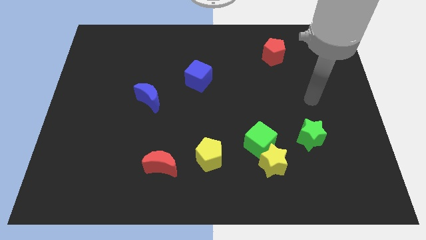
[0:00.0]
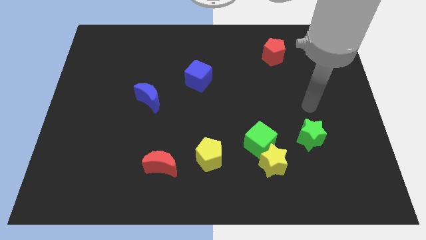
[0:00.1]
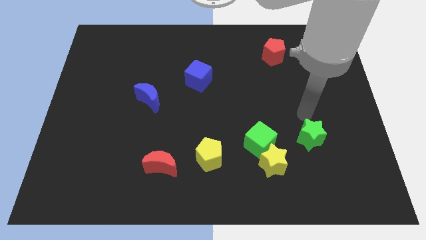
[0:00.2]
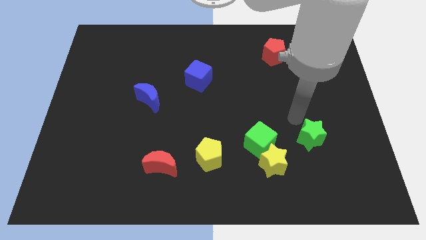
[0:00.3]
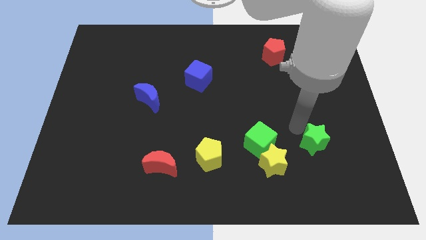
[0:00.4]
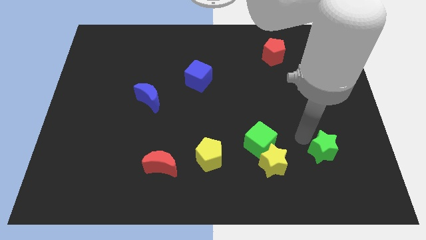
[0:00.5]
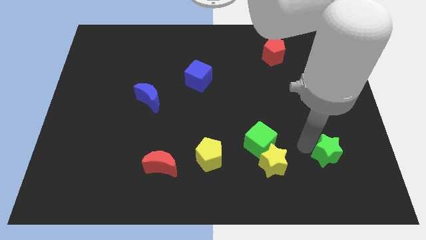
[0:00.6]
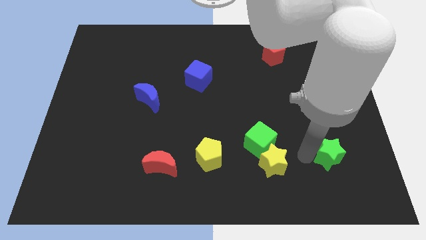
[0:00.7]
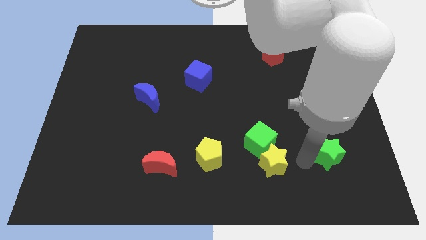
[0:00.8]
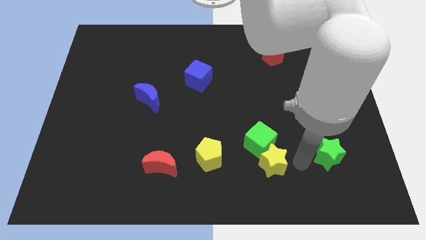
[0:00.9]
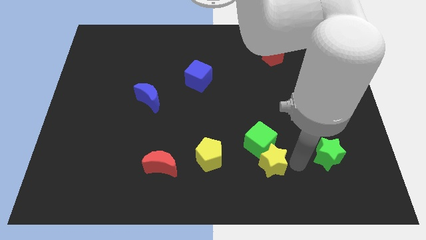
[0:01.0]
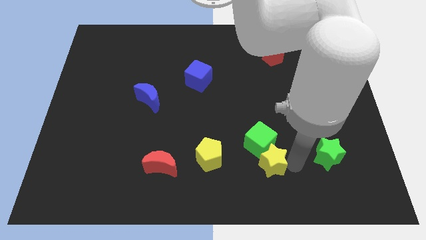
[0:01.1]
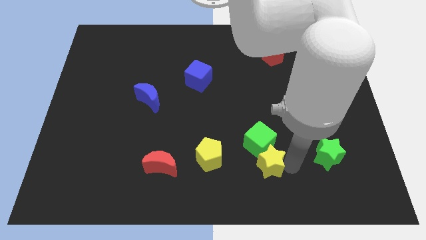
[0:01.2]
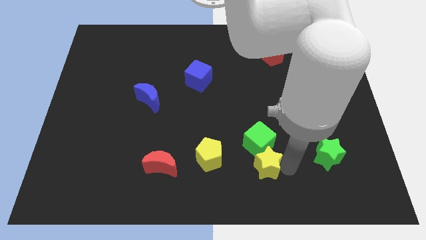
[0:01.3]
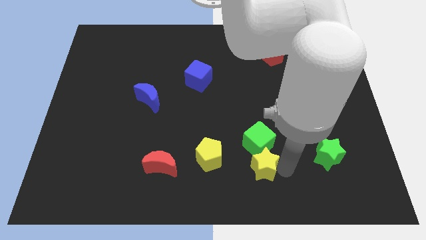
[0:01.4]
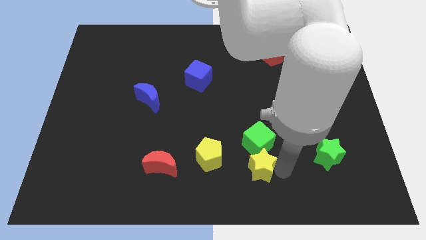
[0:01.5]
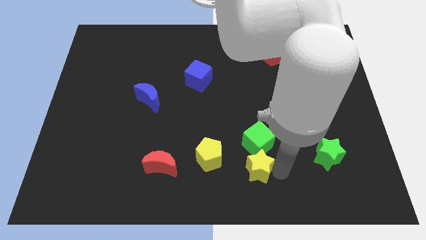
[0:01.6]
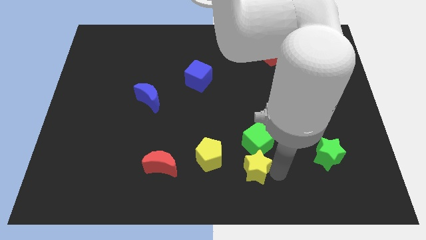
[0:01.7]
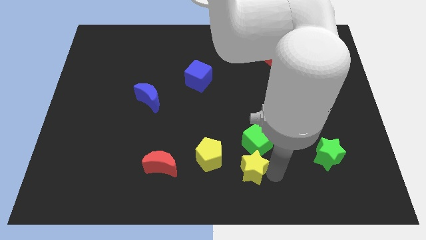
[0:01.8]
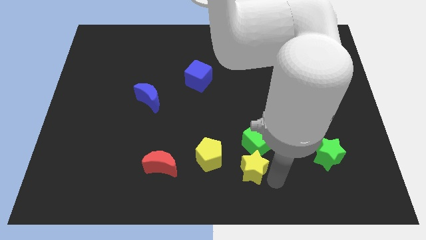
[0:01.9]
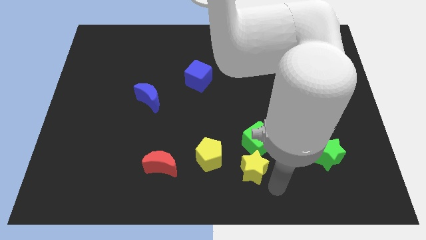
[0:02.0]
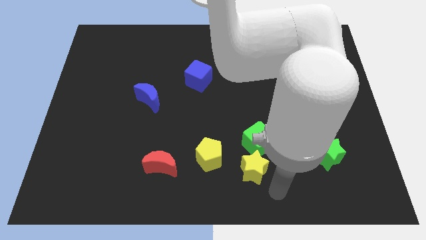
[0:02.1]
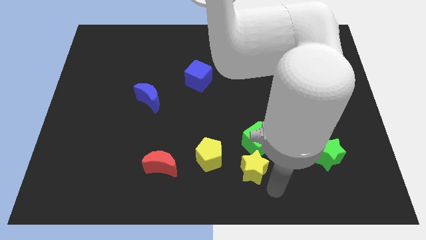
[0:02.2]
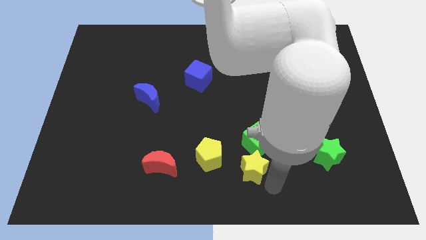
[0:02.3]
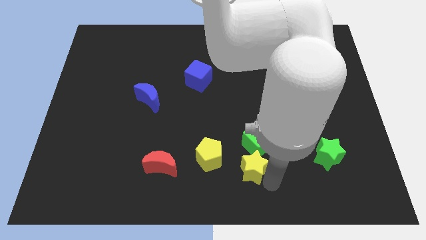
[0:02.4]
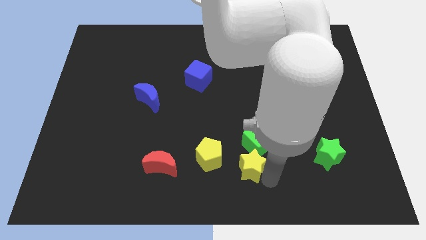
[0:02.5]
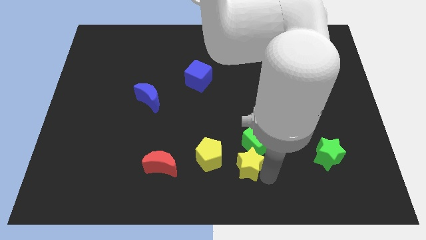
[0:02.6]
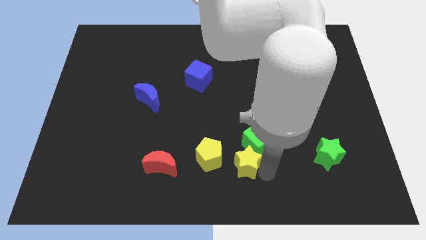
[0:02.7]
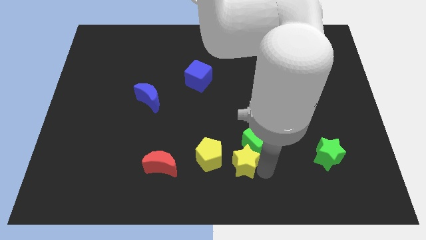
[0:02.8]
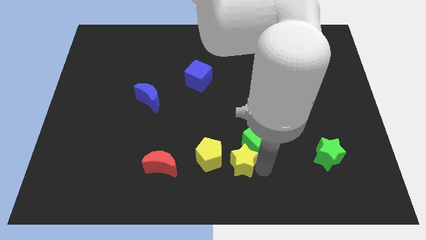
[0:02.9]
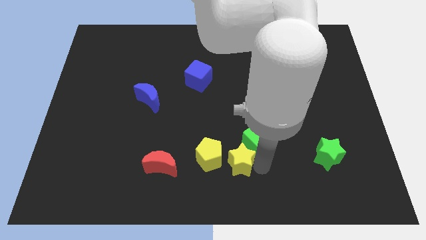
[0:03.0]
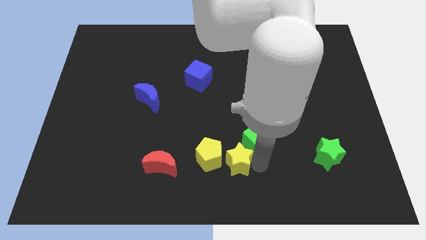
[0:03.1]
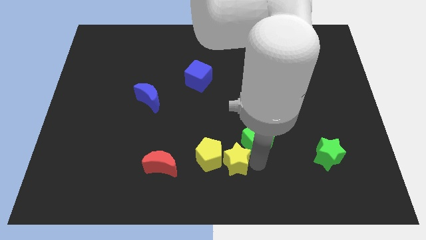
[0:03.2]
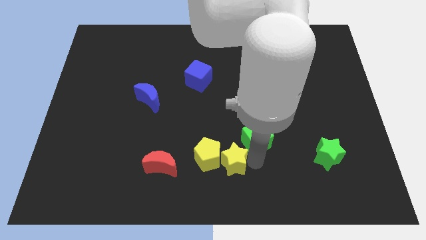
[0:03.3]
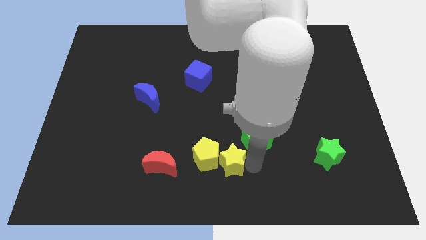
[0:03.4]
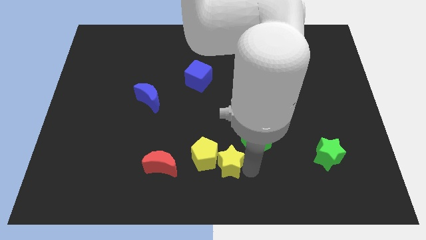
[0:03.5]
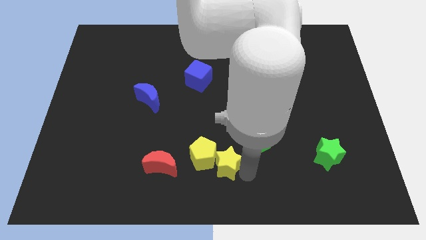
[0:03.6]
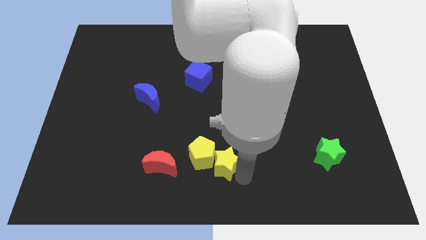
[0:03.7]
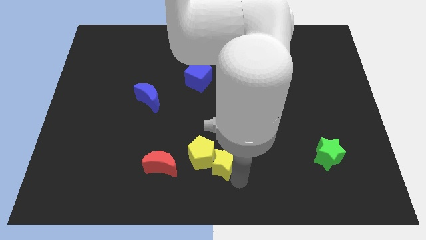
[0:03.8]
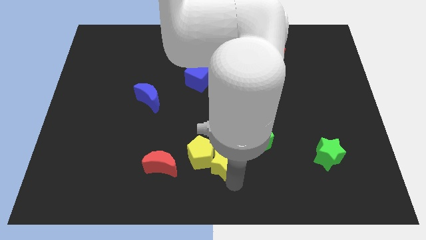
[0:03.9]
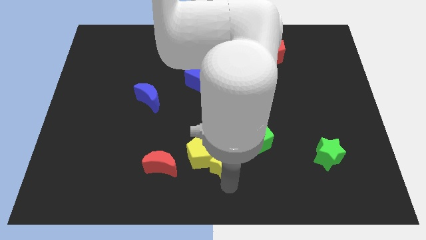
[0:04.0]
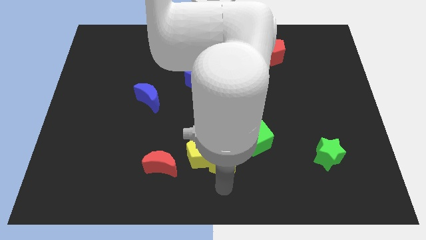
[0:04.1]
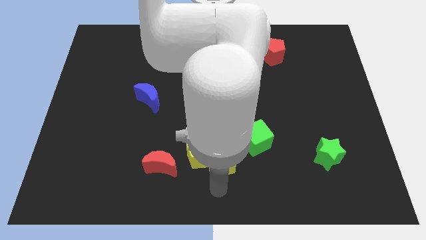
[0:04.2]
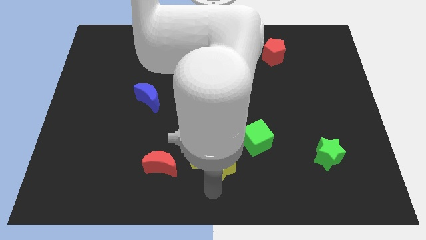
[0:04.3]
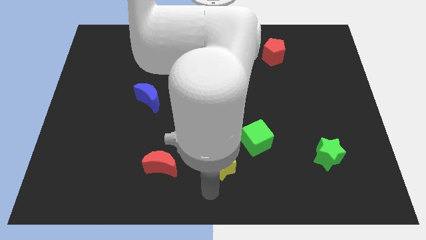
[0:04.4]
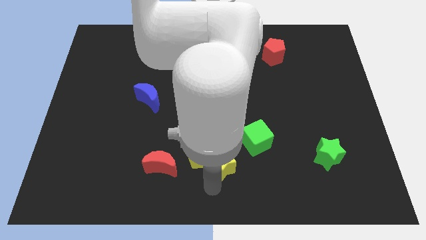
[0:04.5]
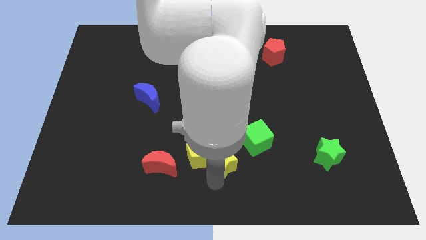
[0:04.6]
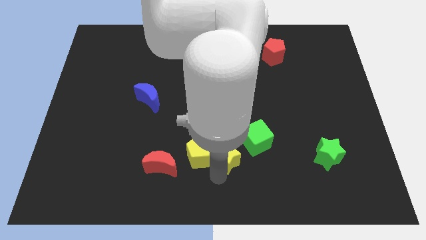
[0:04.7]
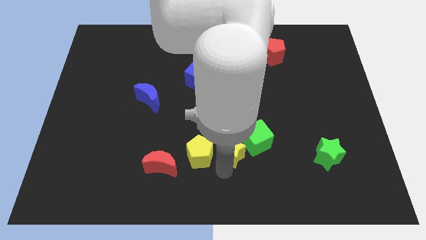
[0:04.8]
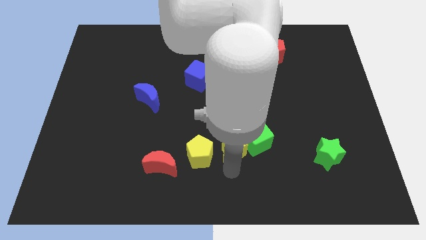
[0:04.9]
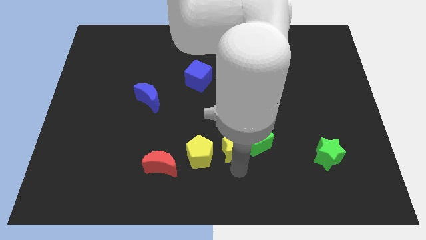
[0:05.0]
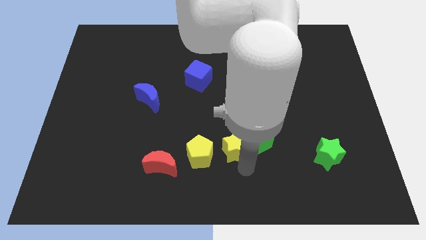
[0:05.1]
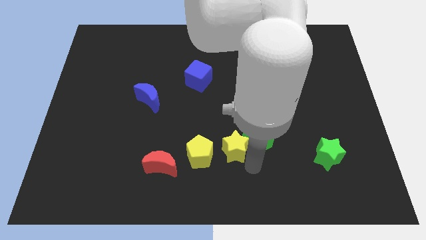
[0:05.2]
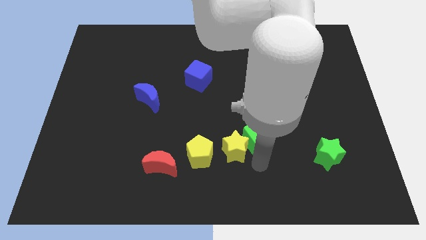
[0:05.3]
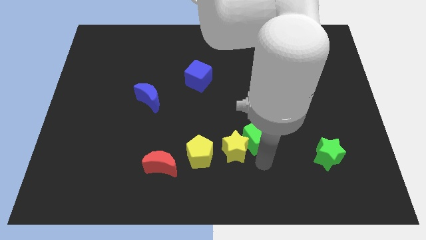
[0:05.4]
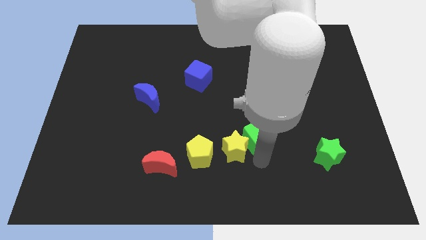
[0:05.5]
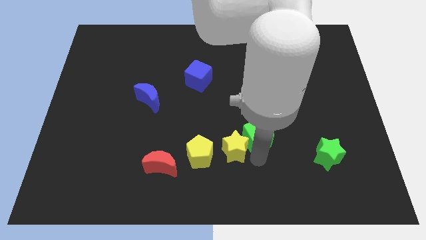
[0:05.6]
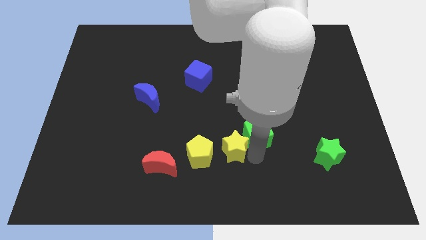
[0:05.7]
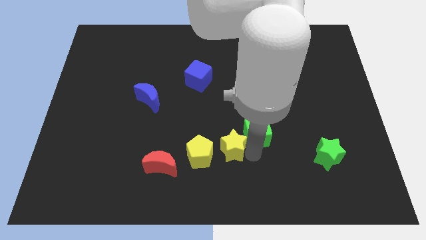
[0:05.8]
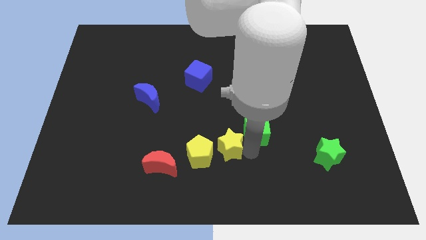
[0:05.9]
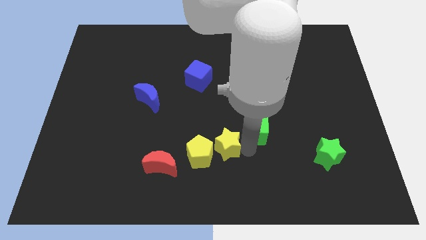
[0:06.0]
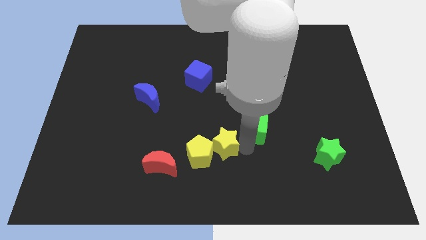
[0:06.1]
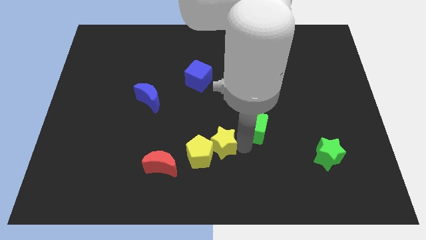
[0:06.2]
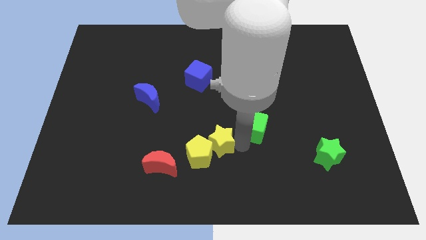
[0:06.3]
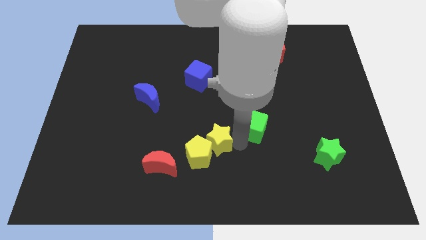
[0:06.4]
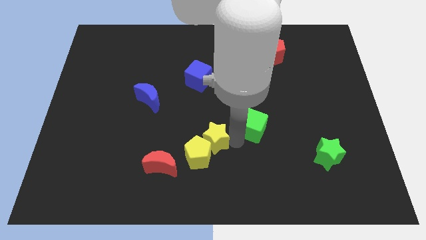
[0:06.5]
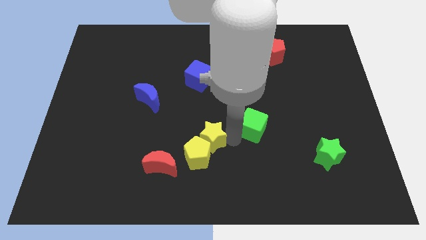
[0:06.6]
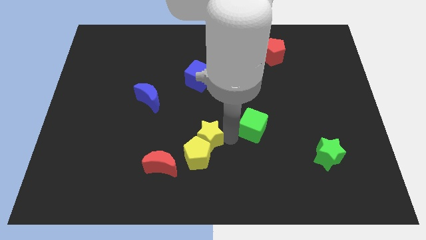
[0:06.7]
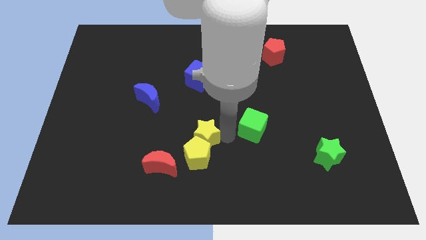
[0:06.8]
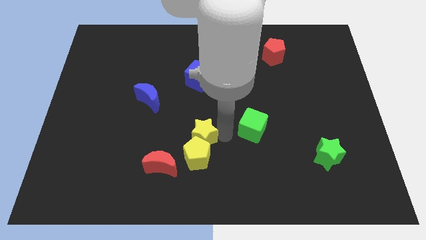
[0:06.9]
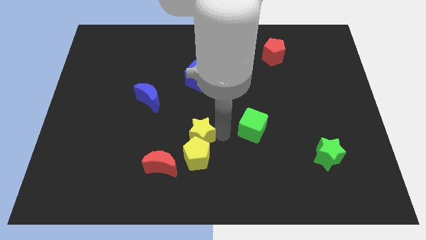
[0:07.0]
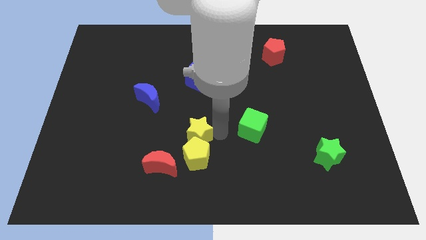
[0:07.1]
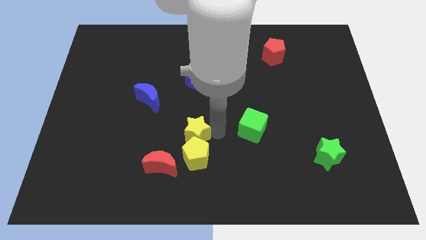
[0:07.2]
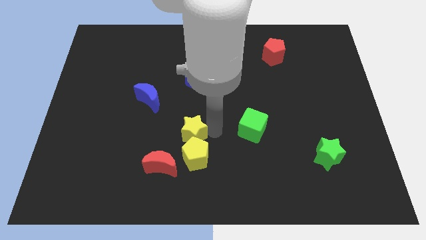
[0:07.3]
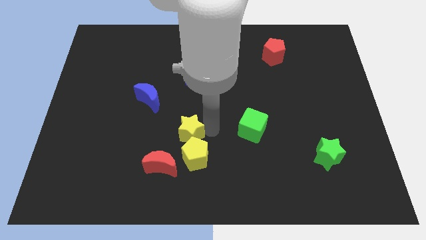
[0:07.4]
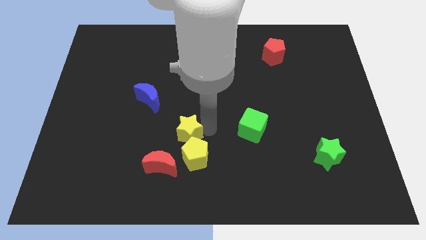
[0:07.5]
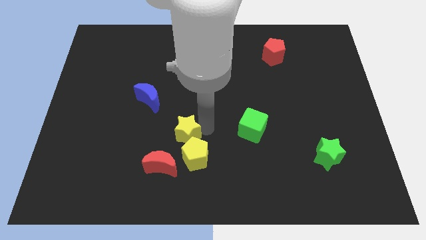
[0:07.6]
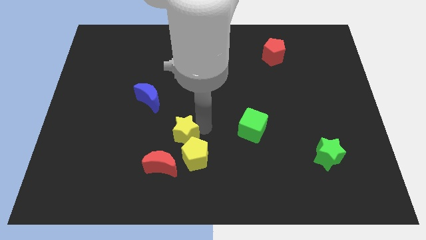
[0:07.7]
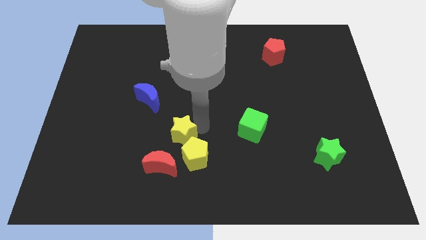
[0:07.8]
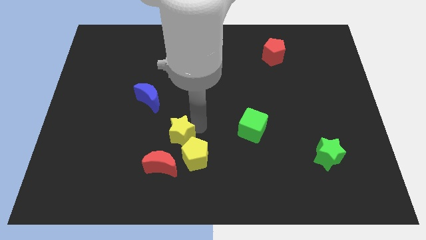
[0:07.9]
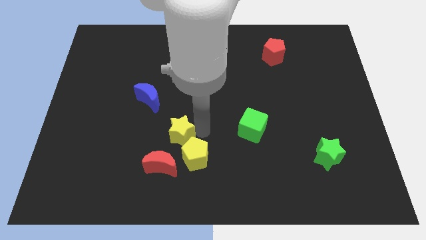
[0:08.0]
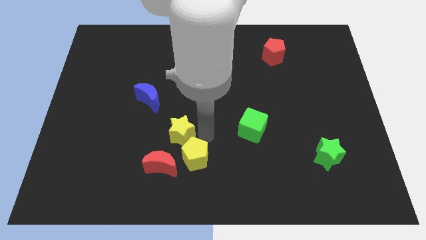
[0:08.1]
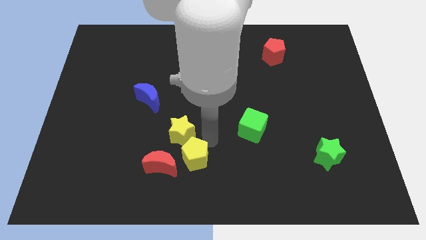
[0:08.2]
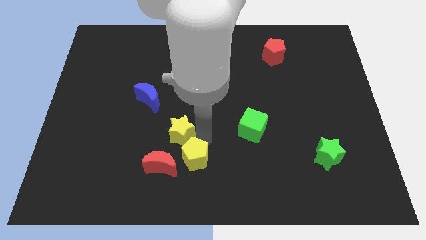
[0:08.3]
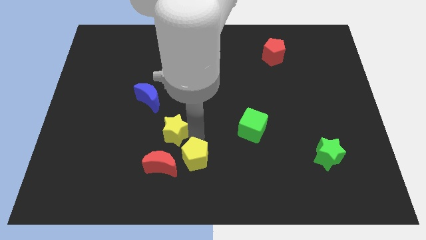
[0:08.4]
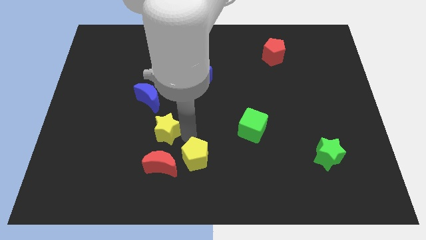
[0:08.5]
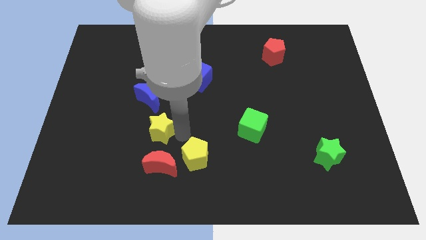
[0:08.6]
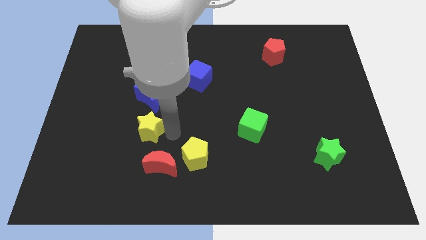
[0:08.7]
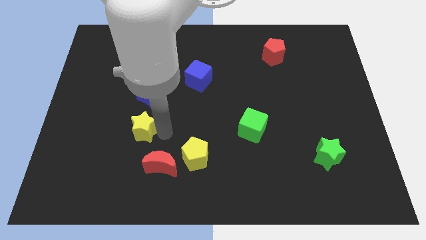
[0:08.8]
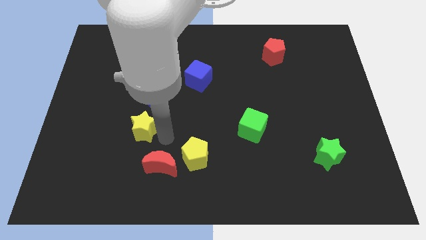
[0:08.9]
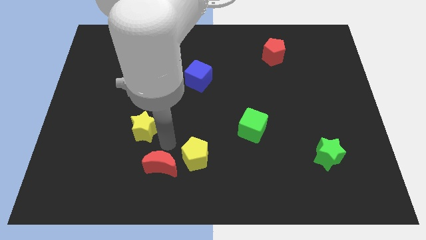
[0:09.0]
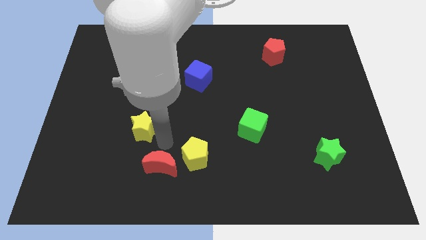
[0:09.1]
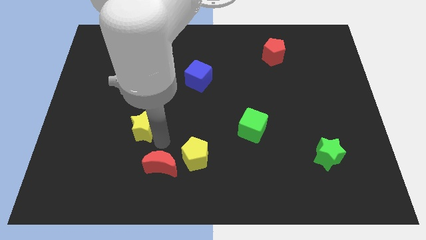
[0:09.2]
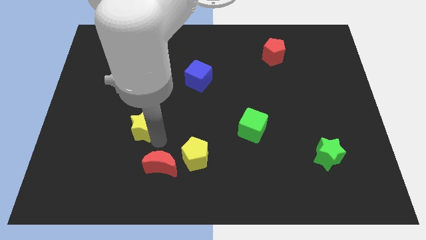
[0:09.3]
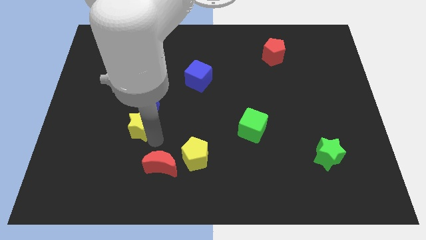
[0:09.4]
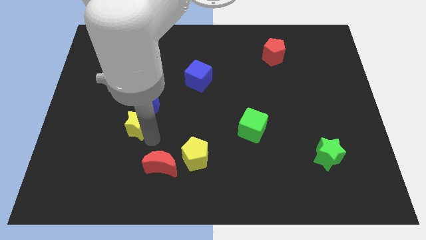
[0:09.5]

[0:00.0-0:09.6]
slide the yellow star to the bottom left of the blue moon
